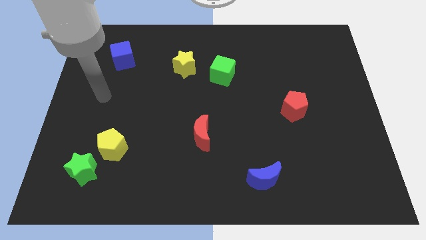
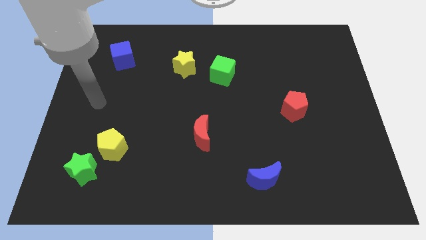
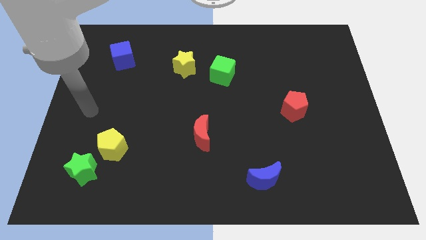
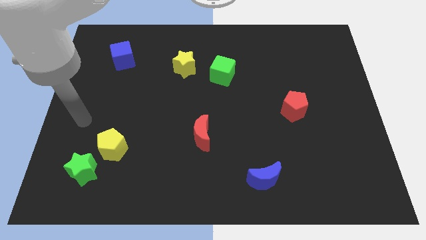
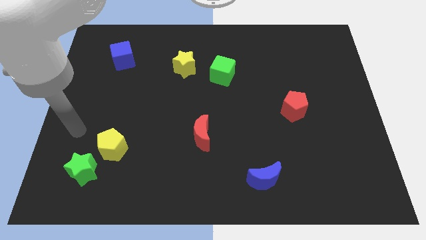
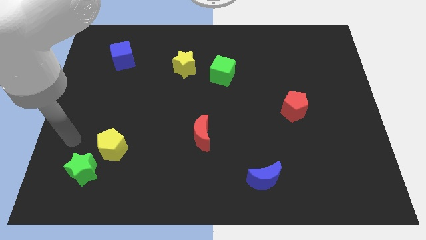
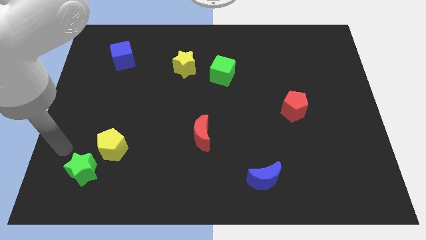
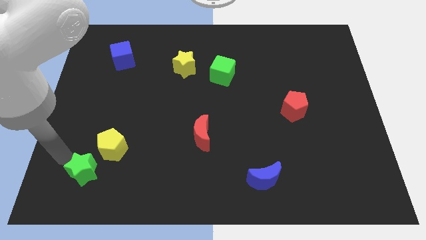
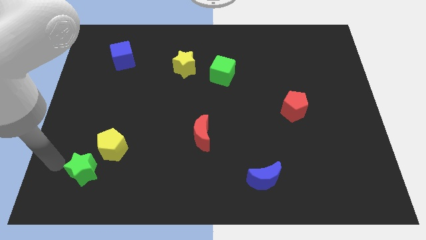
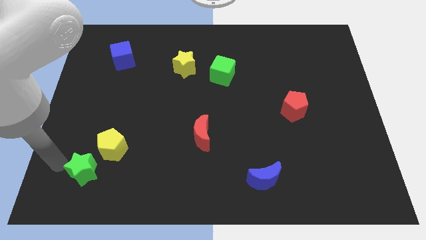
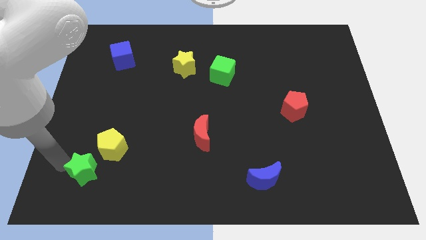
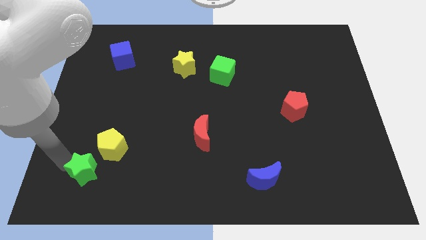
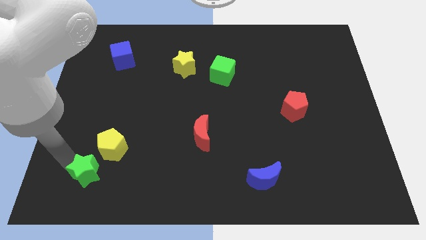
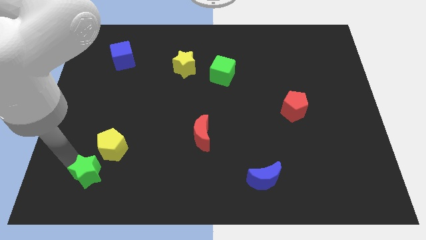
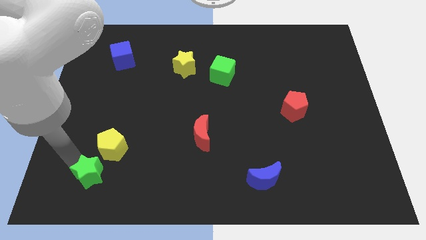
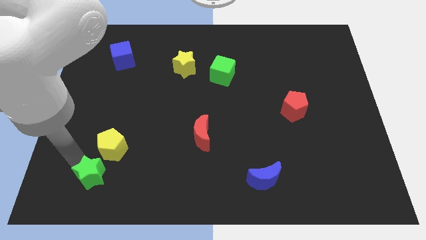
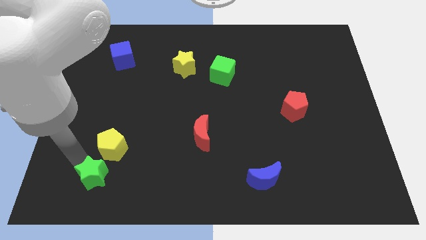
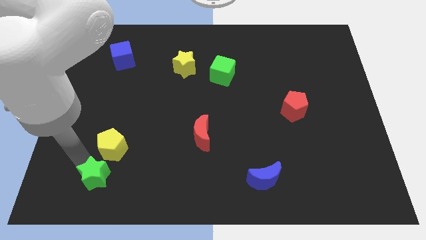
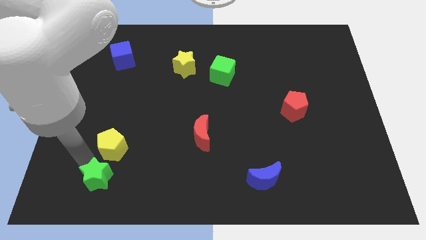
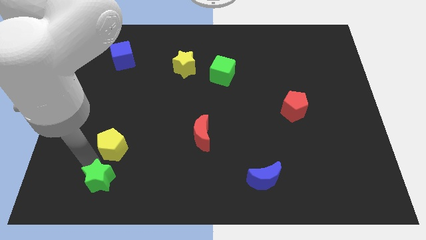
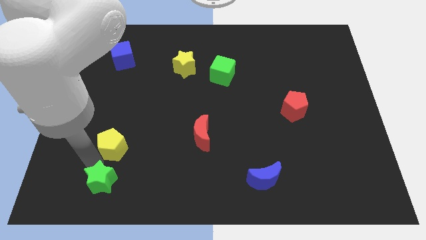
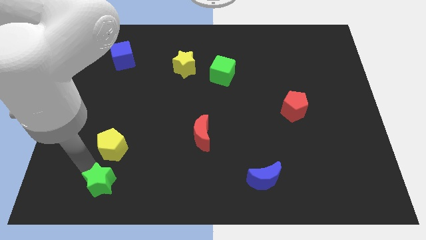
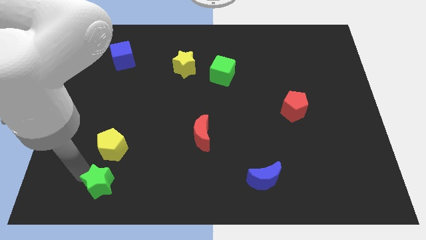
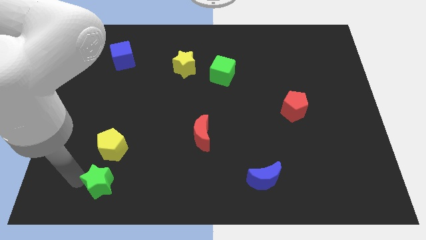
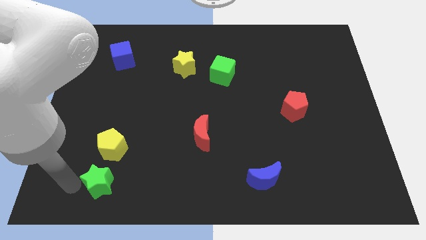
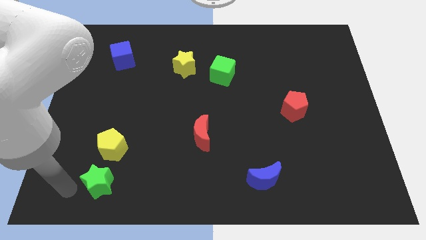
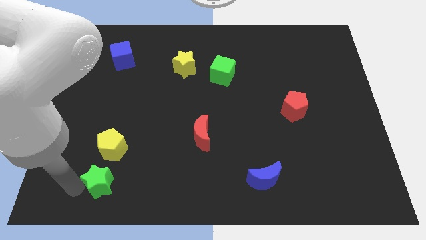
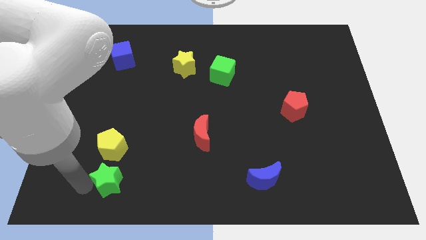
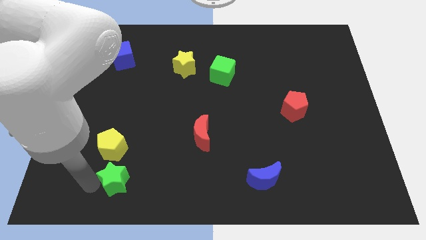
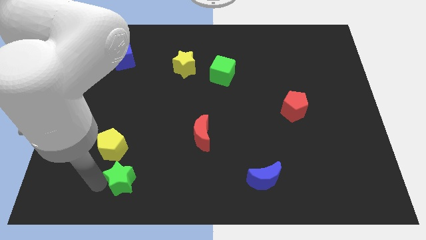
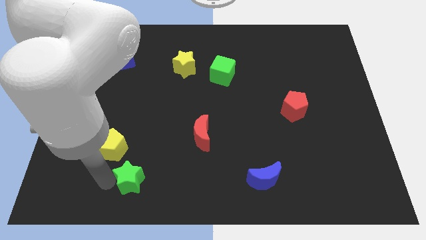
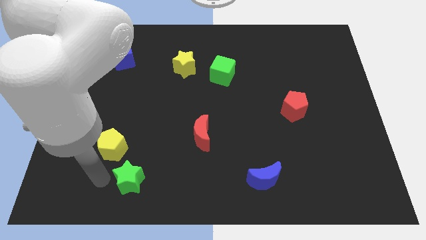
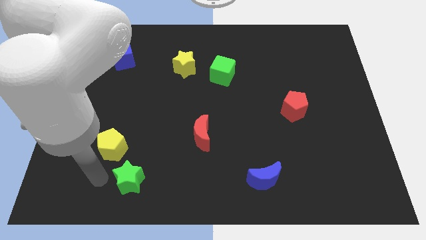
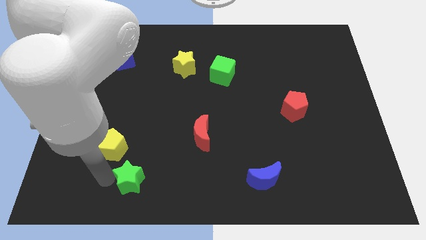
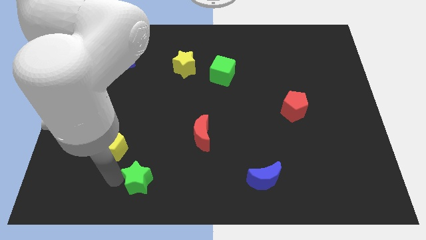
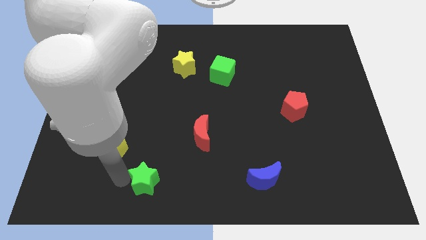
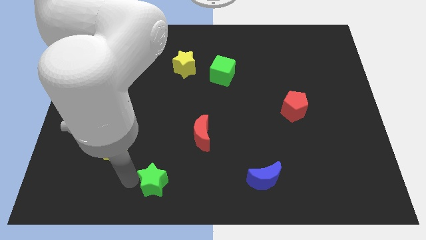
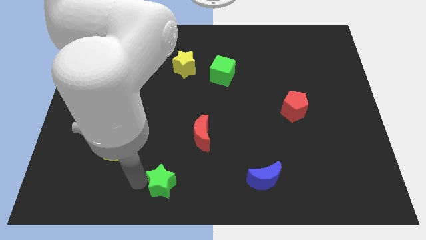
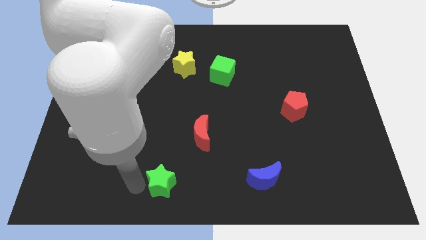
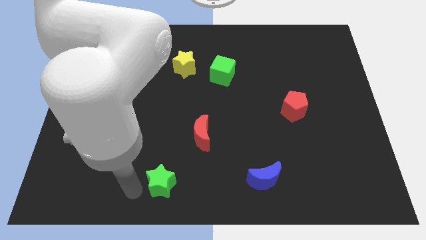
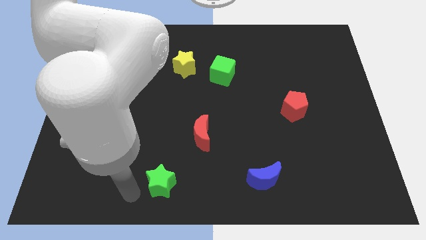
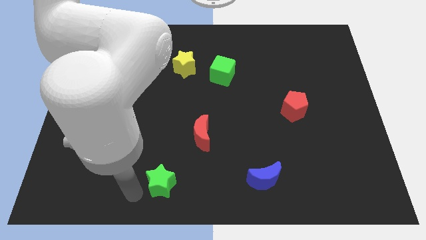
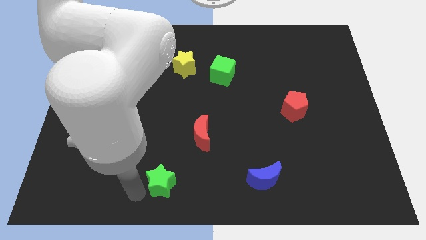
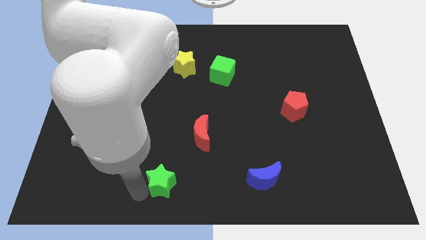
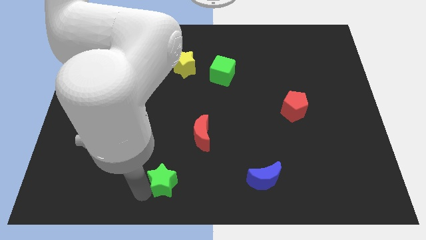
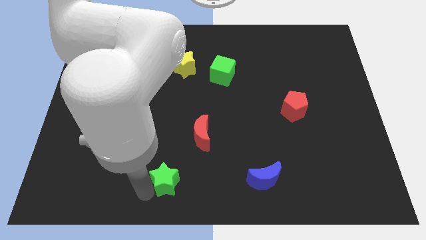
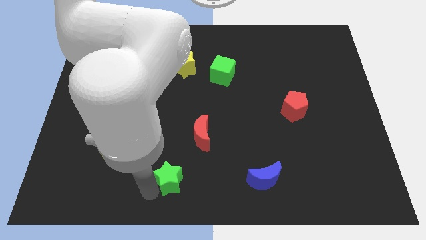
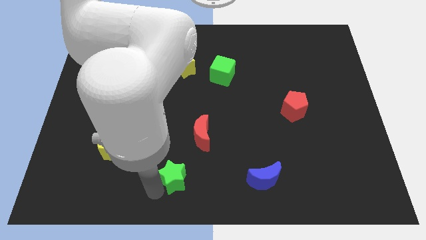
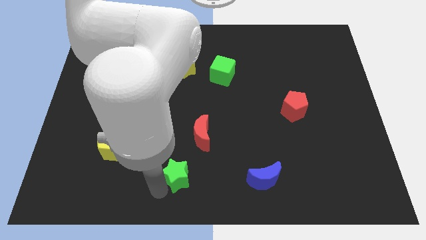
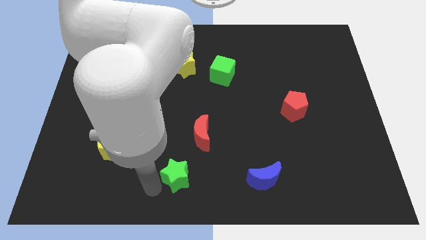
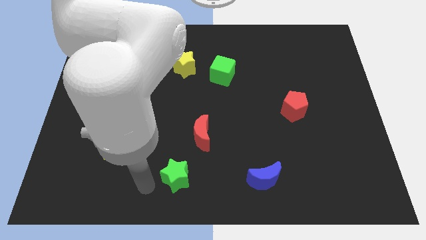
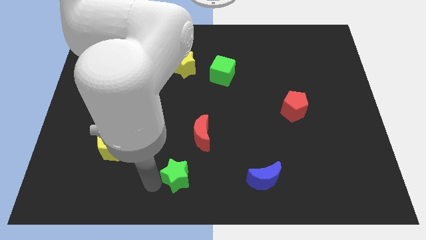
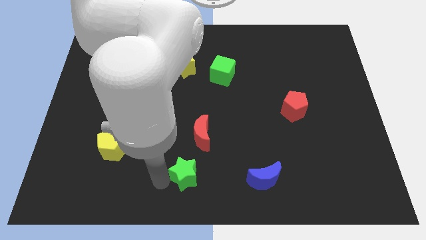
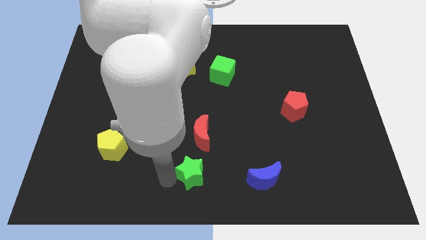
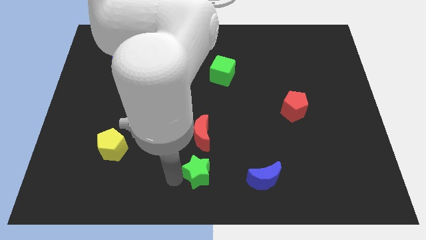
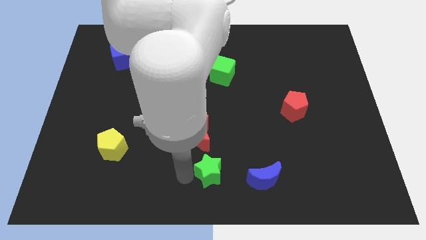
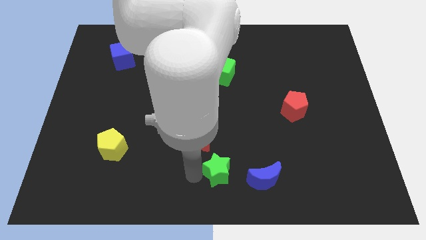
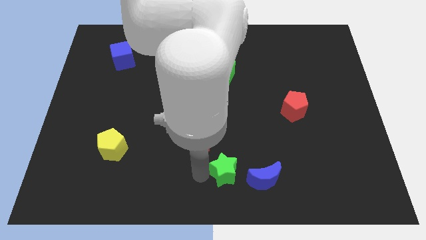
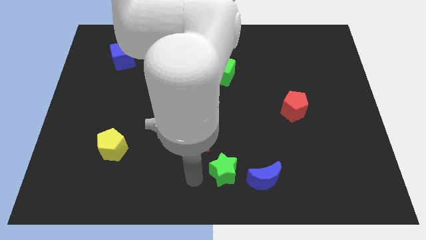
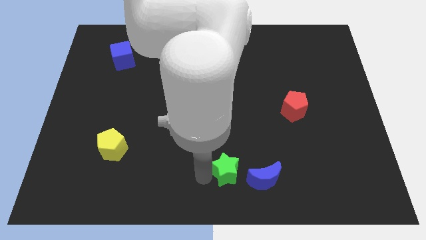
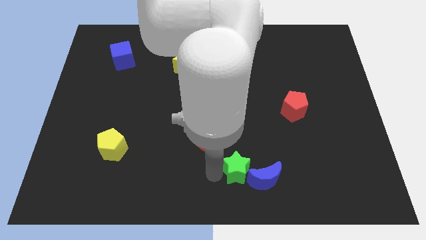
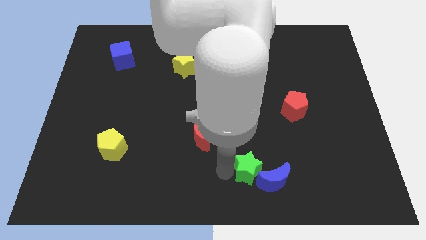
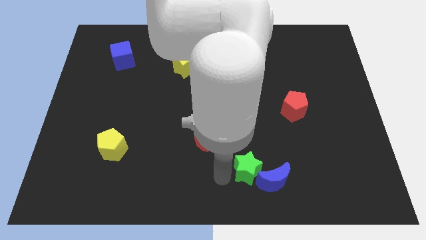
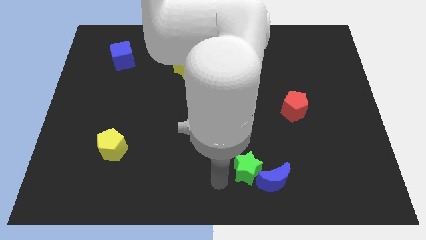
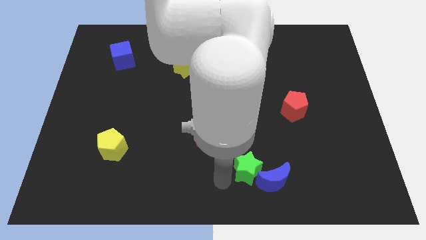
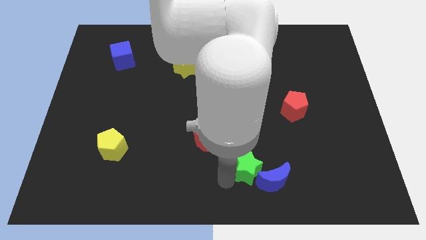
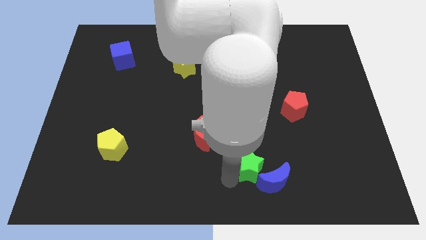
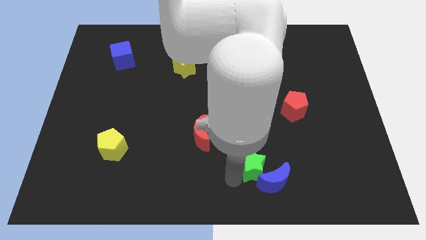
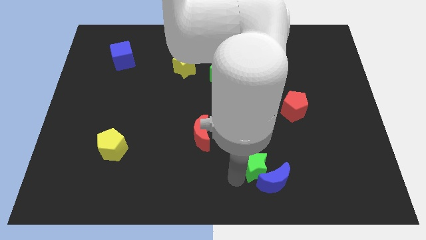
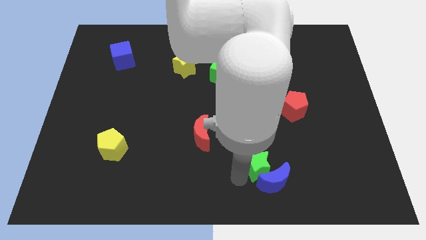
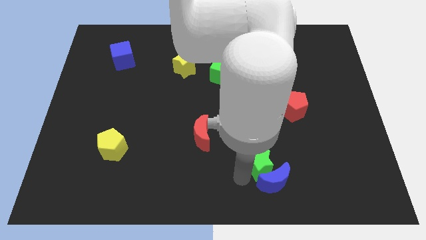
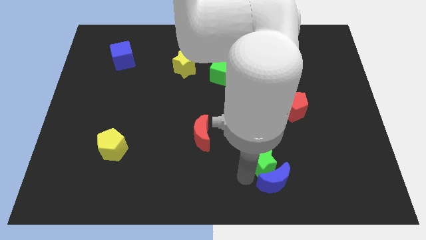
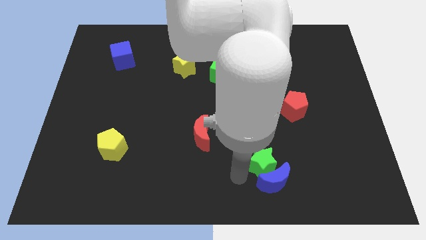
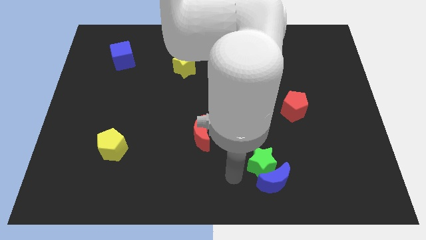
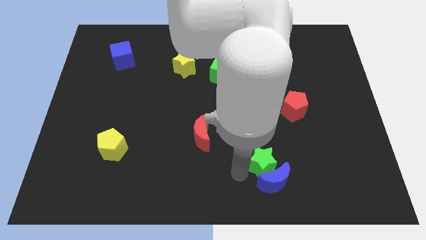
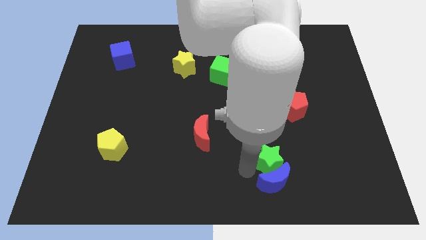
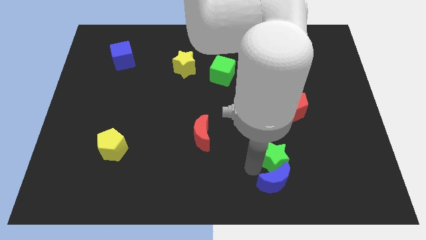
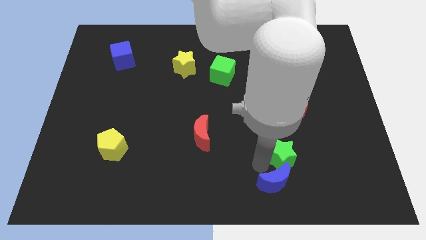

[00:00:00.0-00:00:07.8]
slide the green star below the red pentagon
